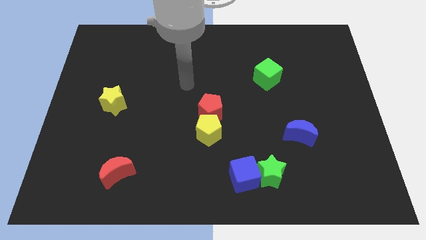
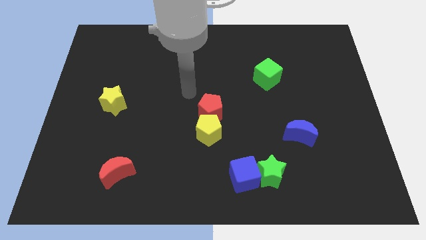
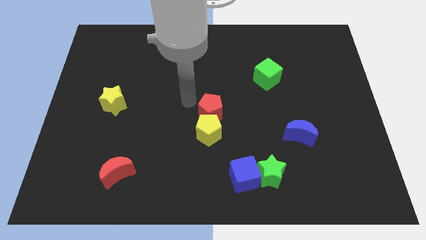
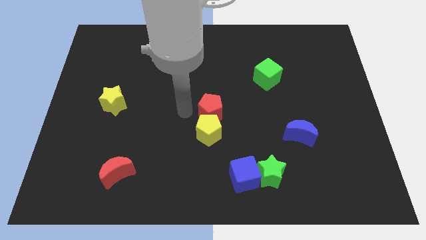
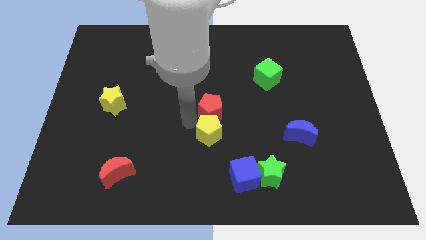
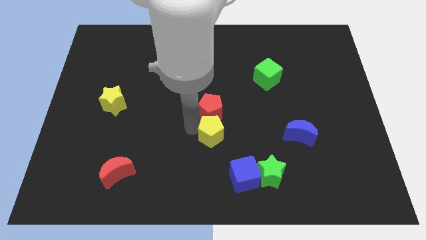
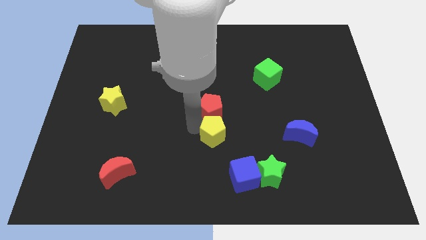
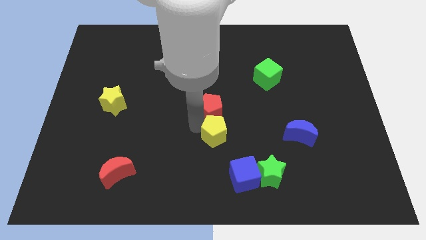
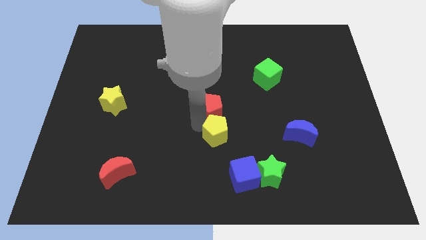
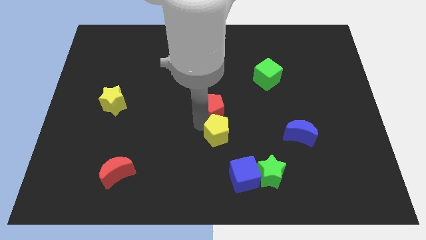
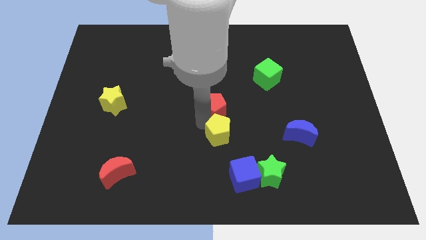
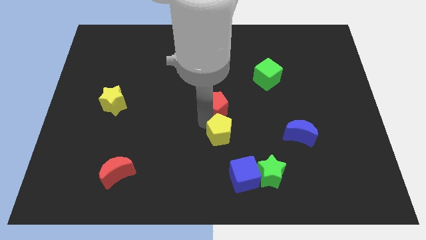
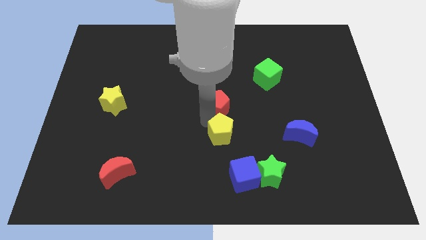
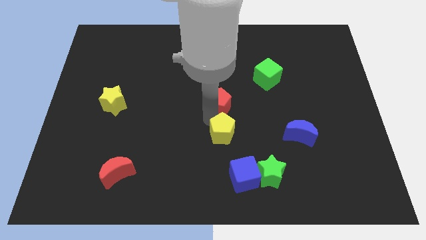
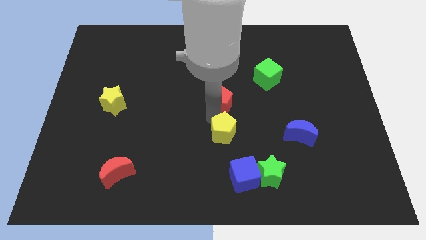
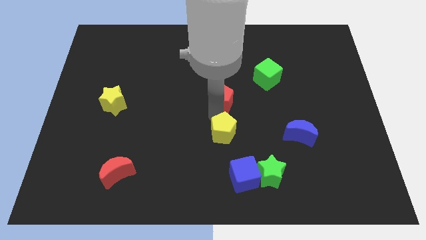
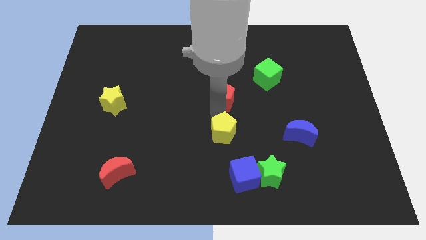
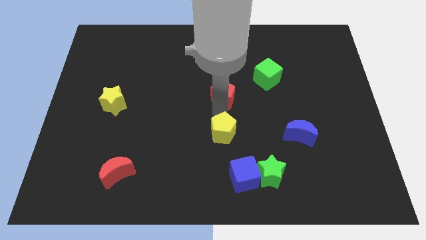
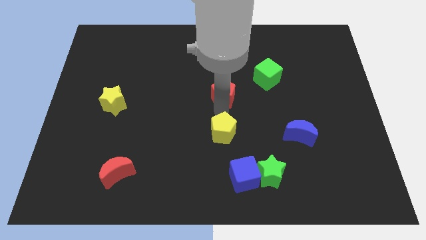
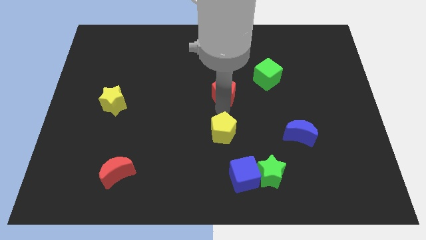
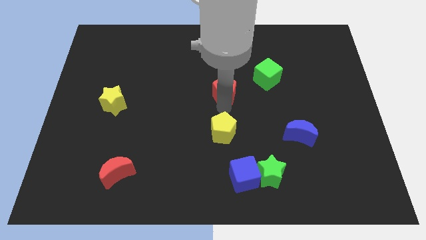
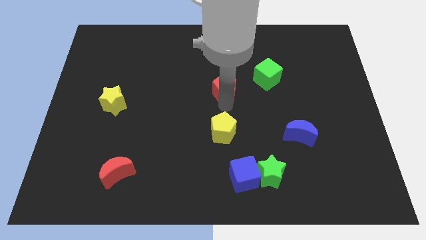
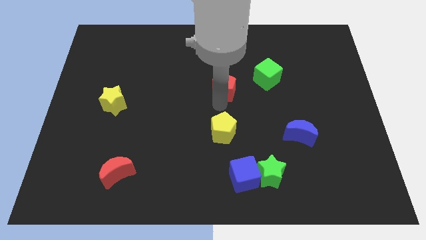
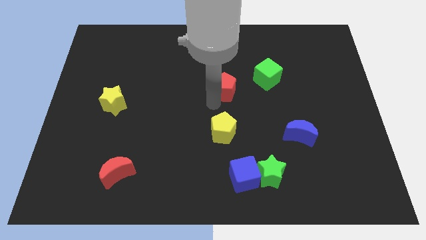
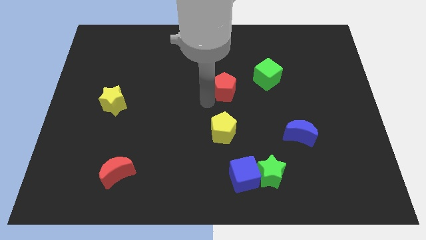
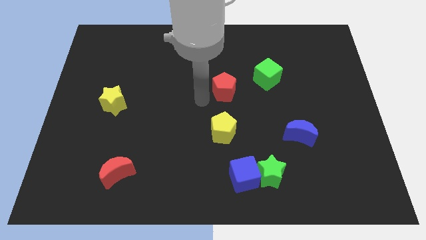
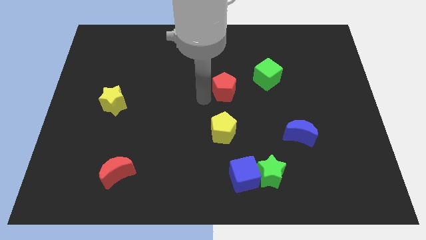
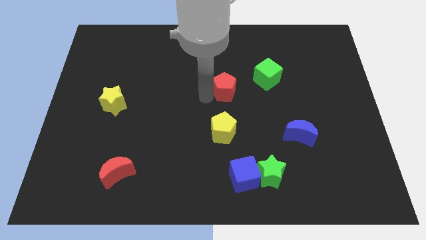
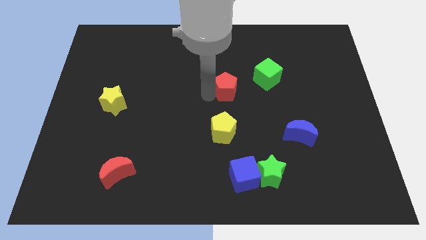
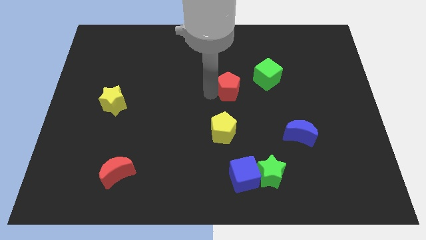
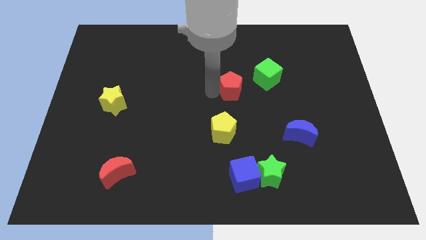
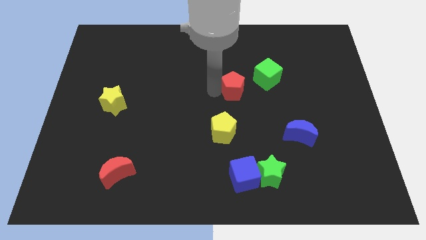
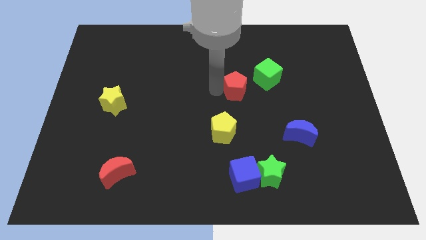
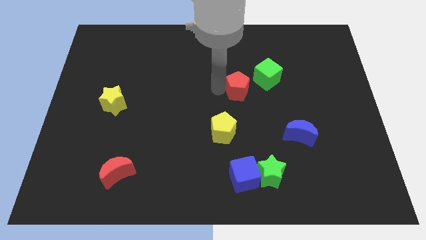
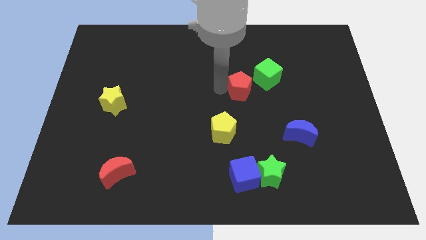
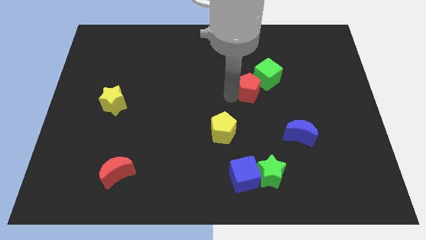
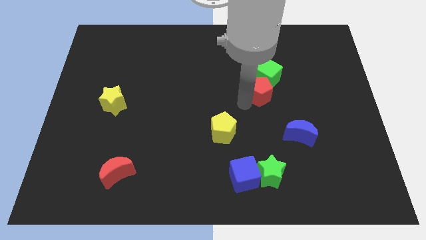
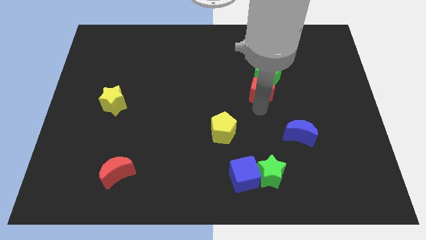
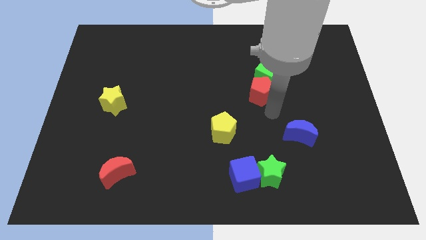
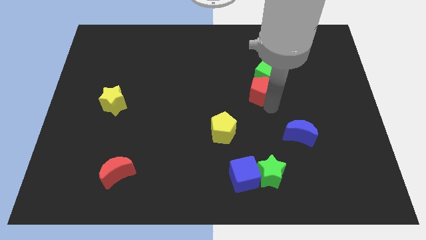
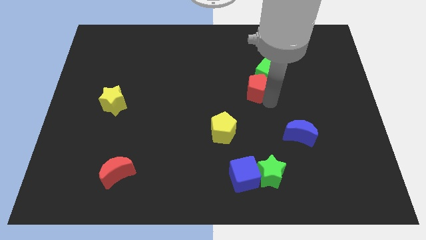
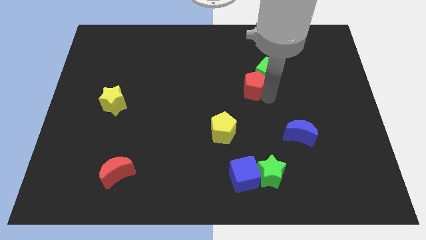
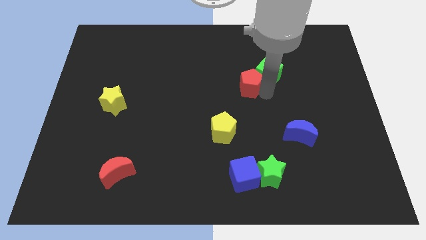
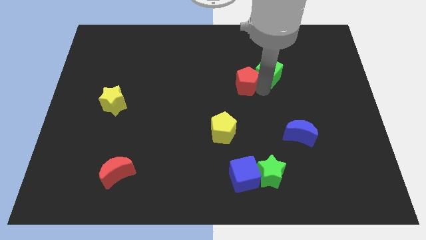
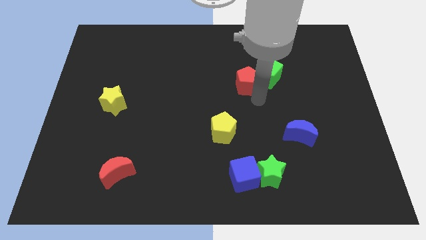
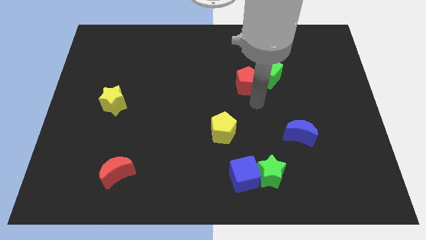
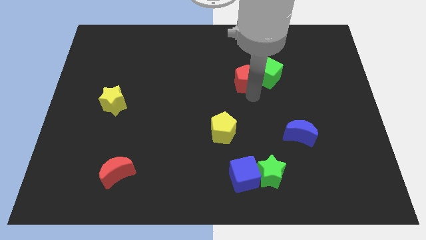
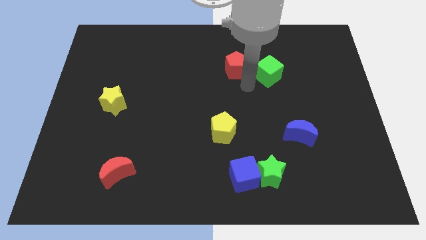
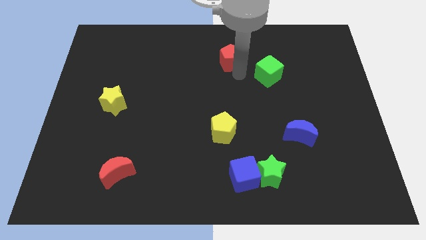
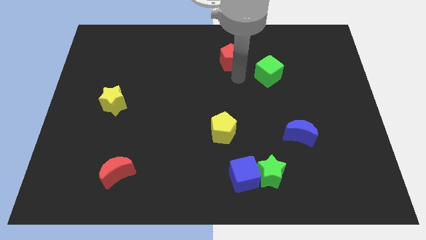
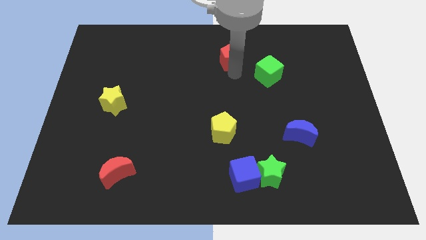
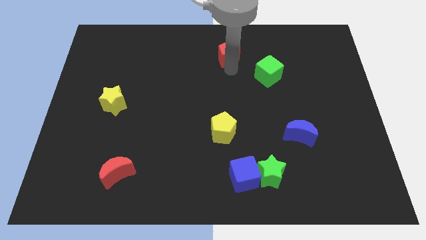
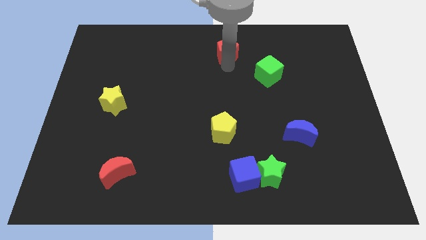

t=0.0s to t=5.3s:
slide the red pentagon to the top

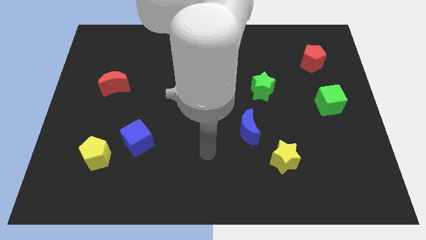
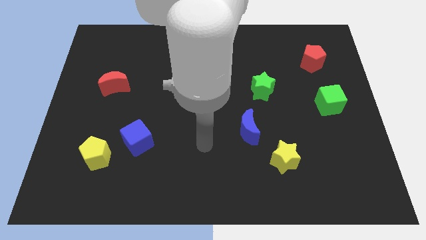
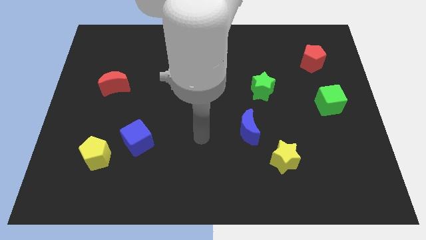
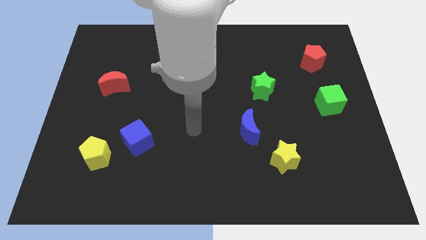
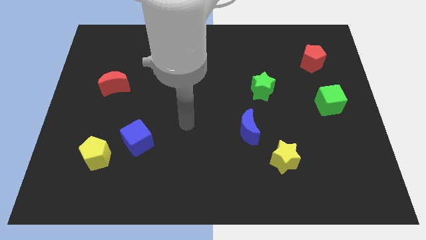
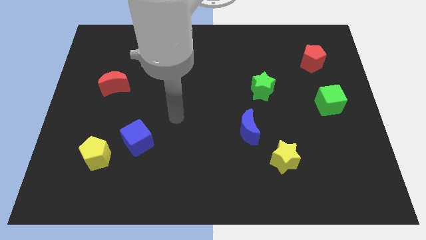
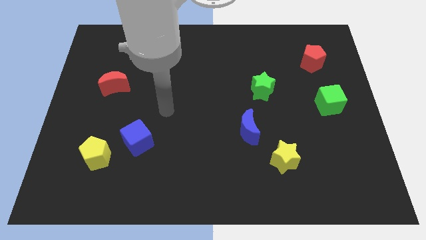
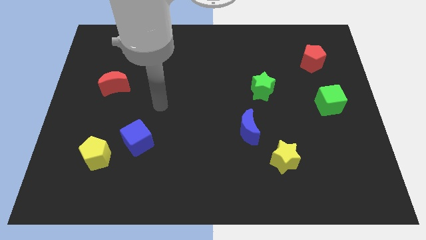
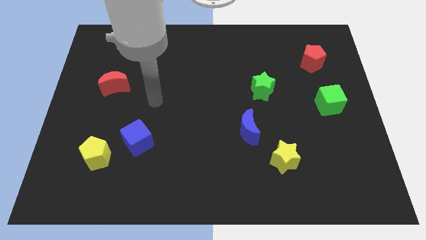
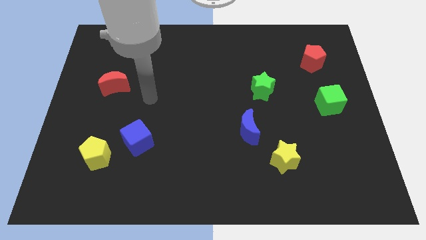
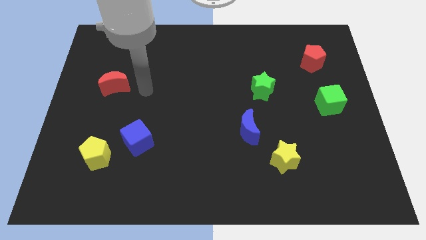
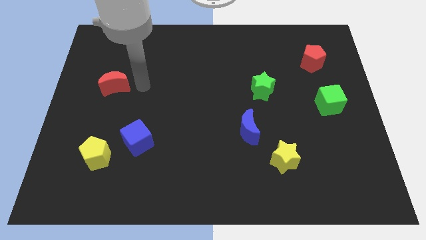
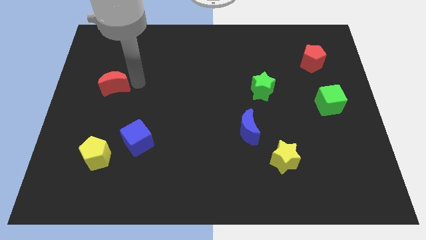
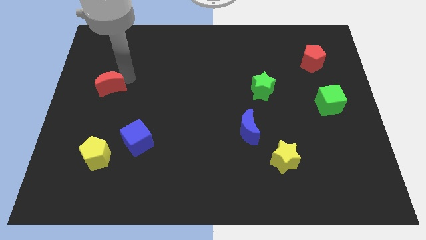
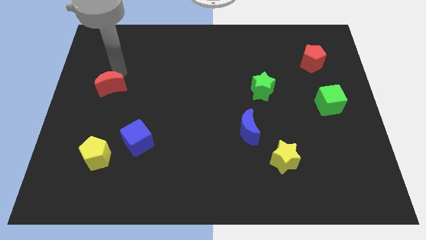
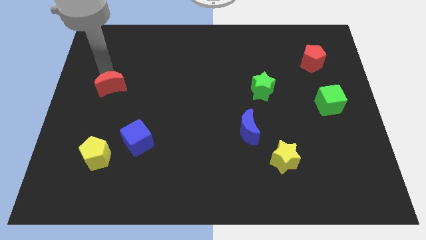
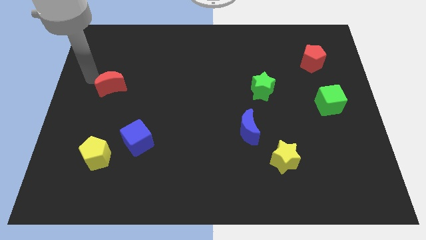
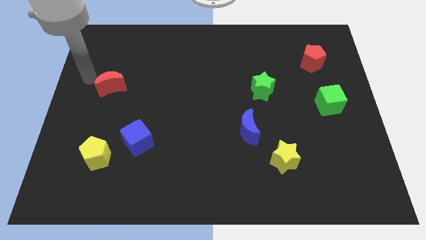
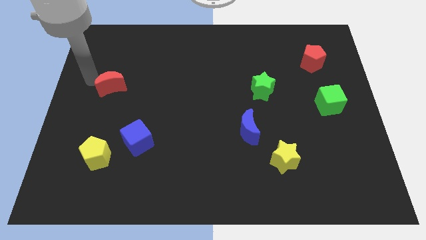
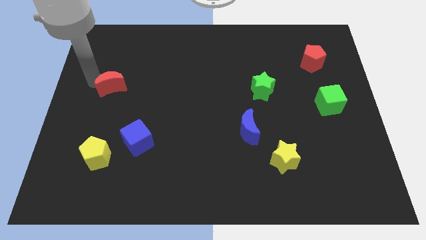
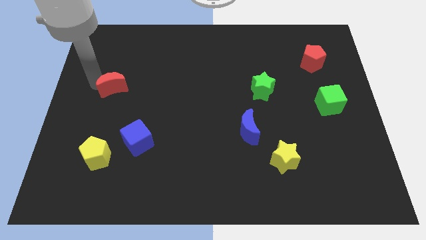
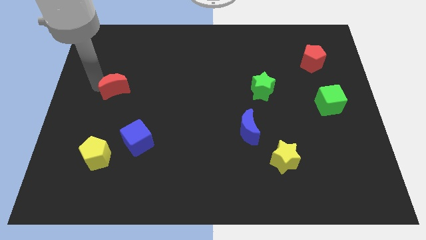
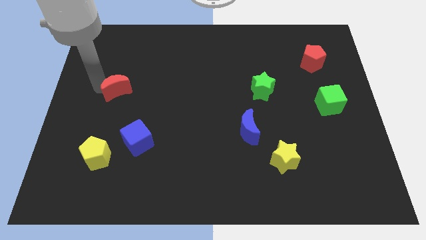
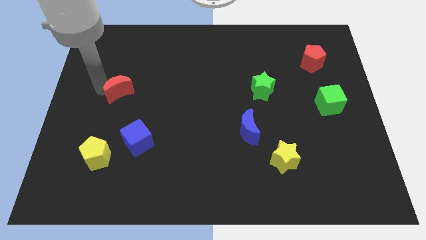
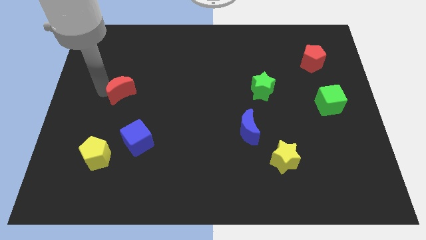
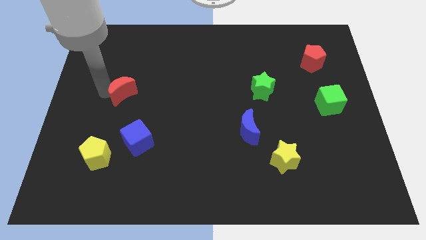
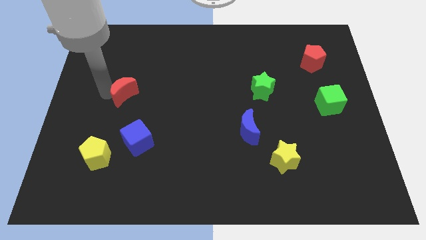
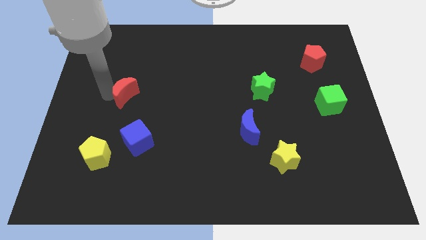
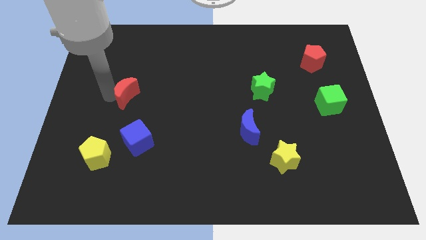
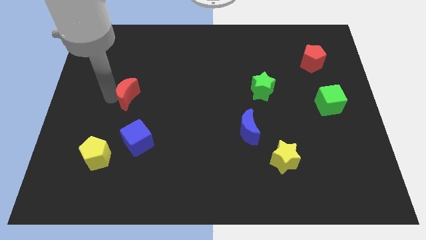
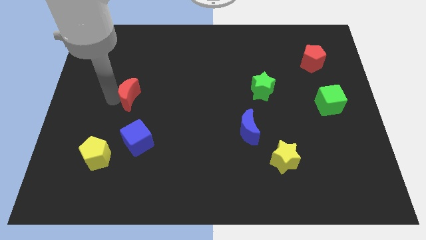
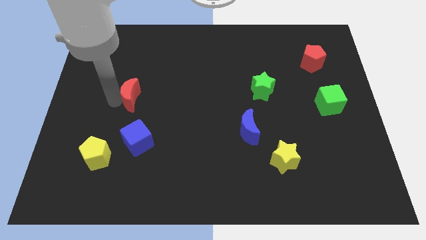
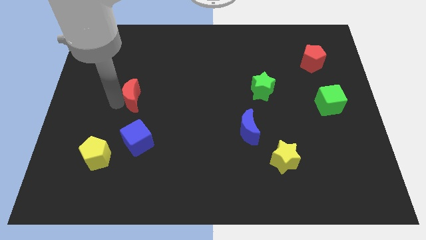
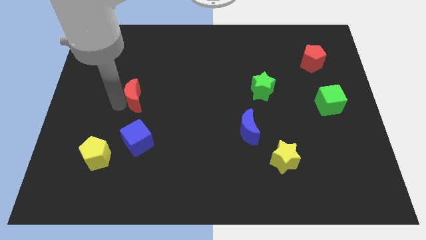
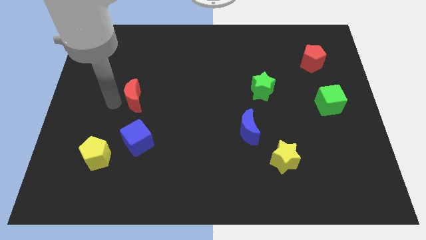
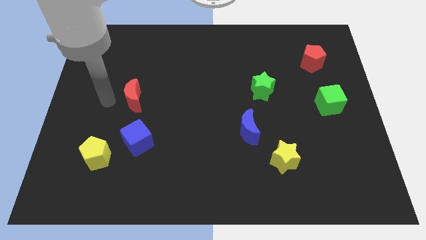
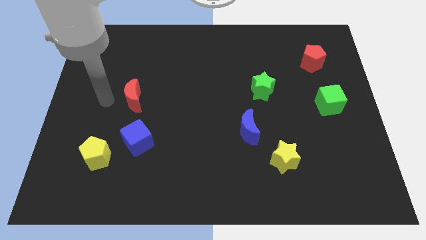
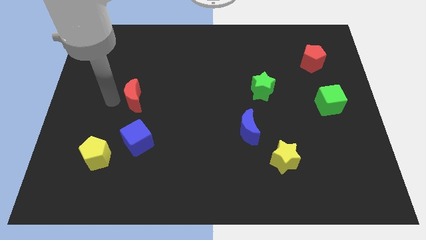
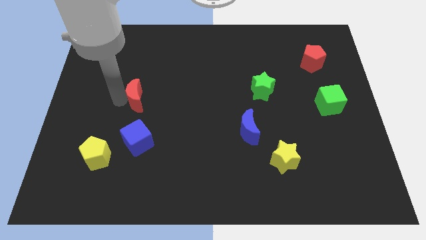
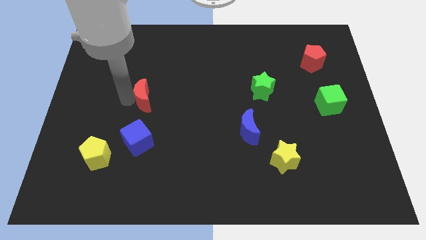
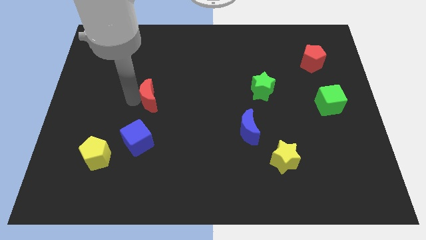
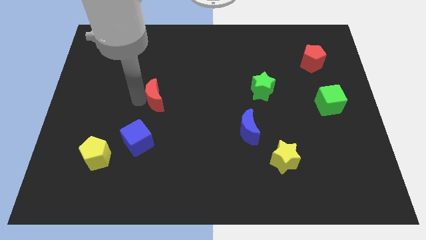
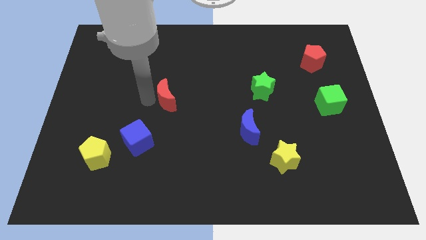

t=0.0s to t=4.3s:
push the red moon to the center
